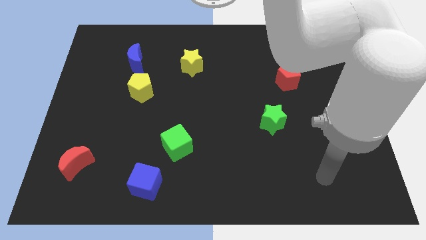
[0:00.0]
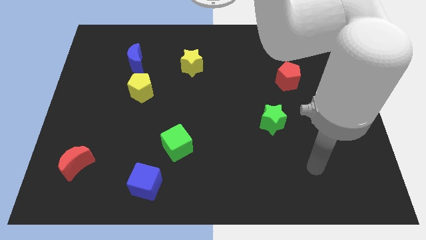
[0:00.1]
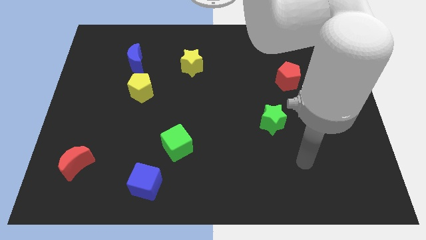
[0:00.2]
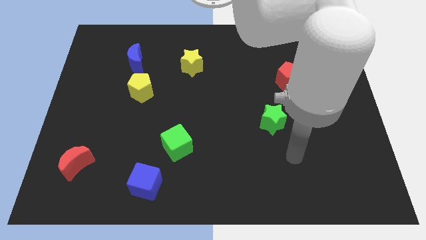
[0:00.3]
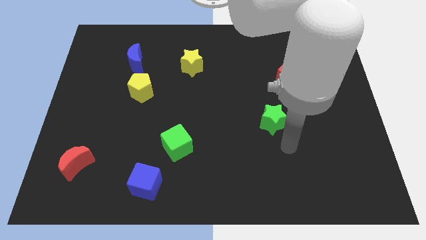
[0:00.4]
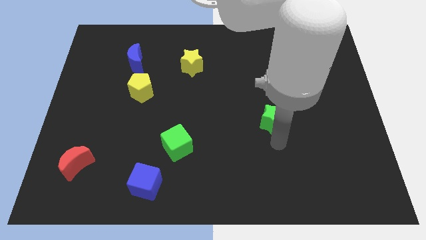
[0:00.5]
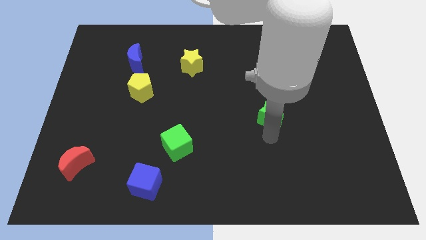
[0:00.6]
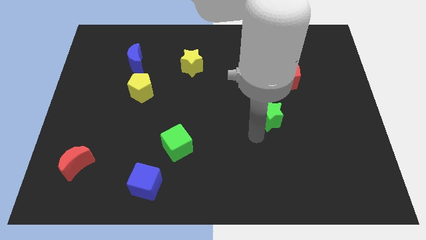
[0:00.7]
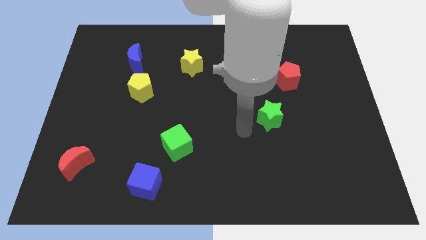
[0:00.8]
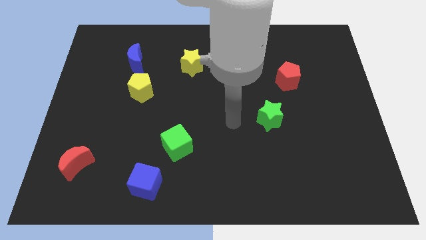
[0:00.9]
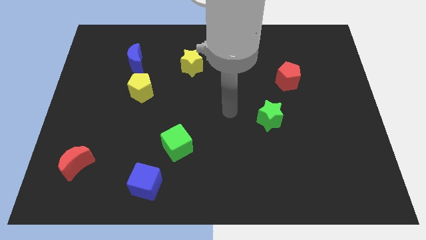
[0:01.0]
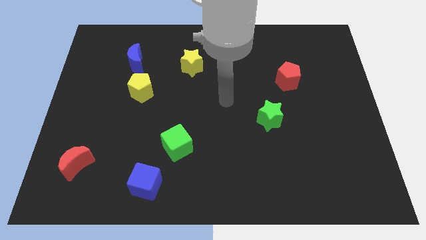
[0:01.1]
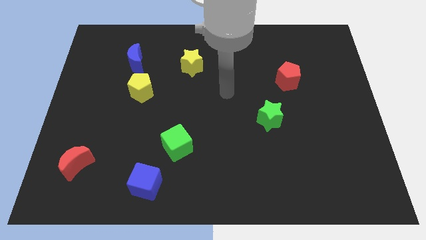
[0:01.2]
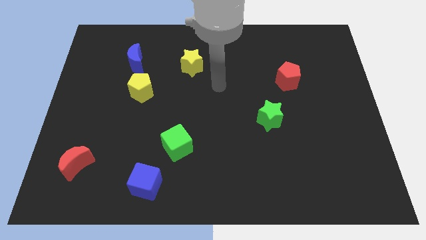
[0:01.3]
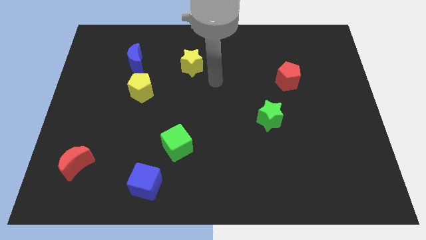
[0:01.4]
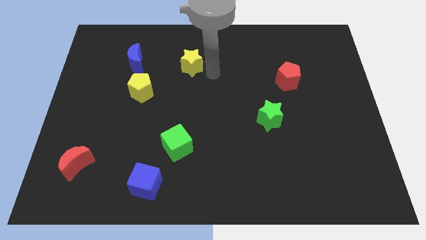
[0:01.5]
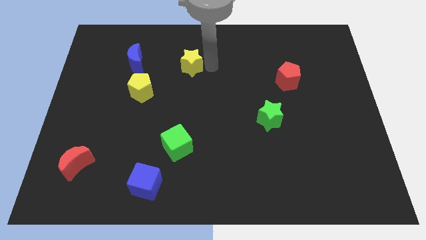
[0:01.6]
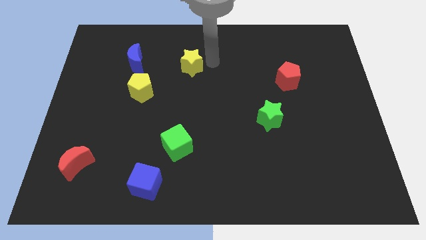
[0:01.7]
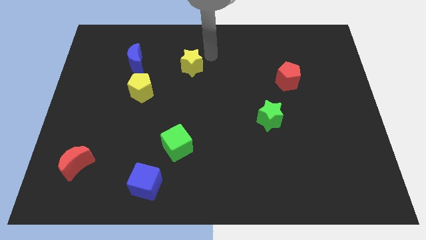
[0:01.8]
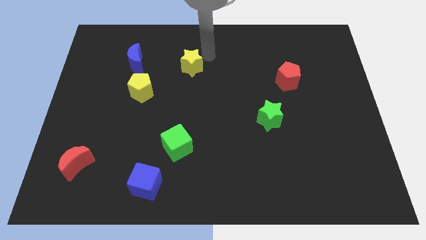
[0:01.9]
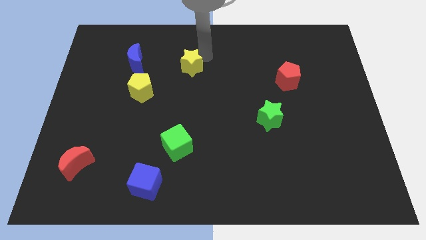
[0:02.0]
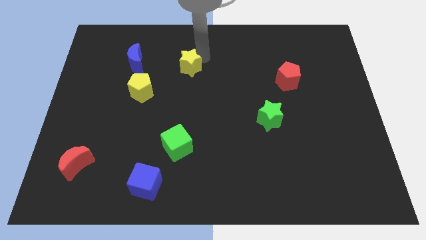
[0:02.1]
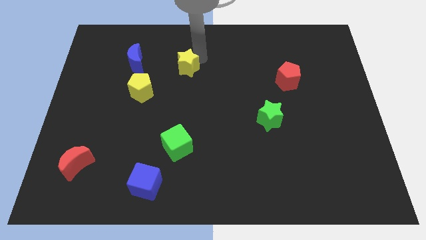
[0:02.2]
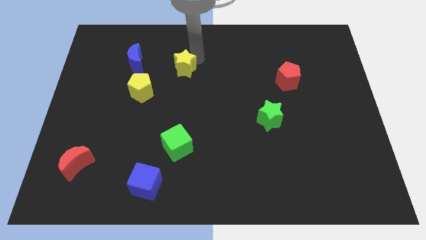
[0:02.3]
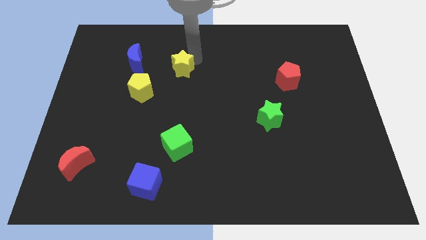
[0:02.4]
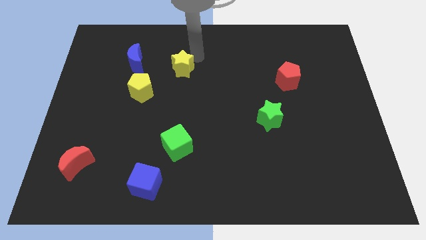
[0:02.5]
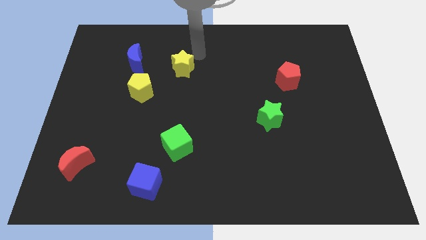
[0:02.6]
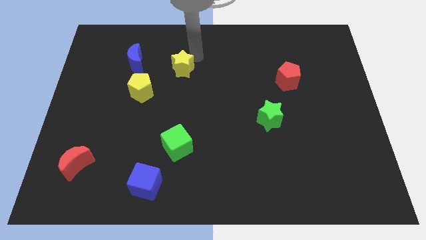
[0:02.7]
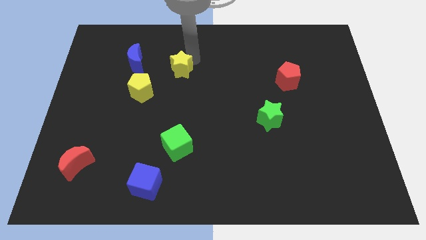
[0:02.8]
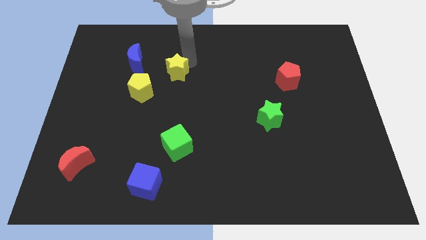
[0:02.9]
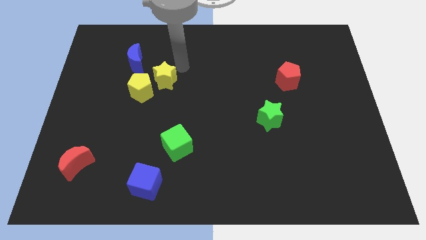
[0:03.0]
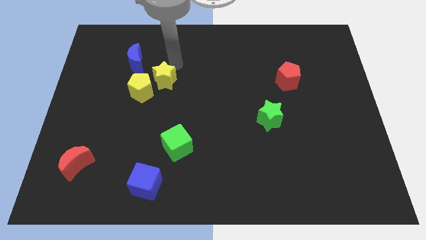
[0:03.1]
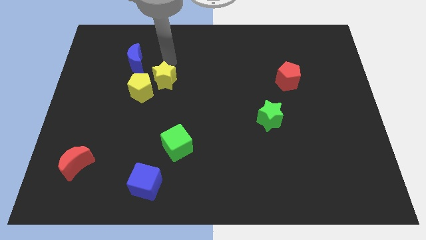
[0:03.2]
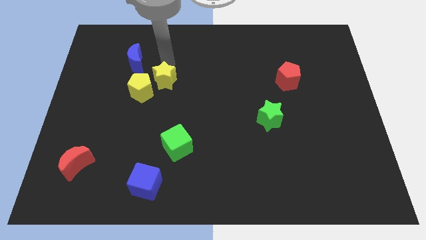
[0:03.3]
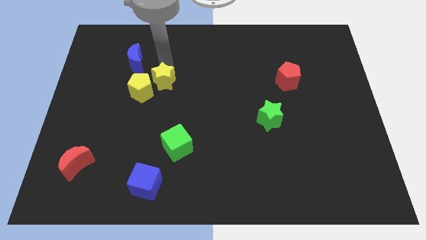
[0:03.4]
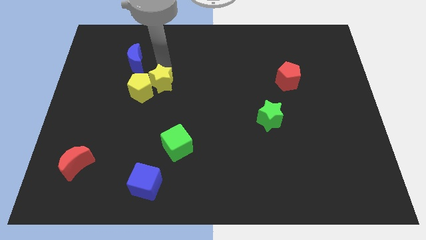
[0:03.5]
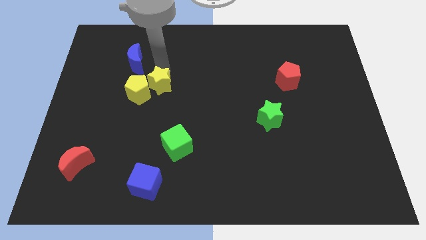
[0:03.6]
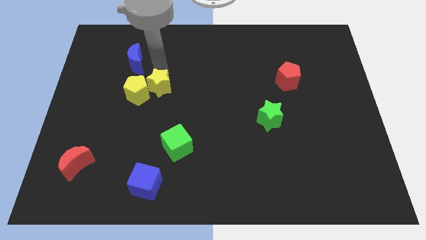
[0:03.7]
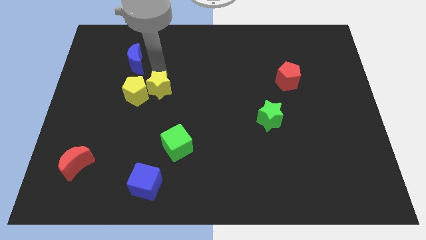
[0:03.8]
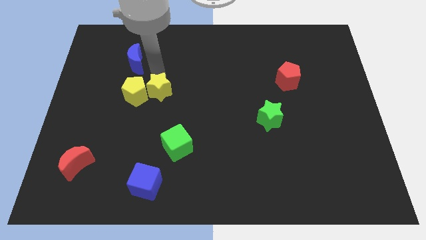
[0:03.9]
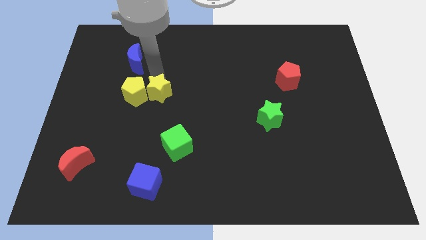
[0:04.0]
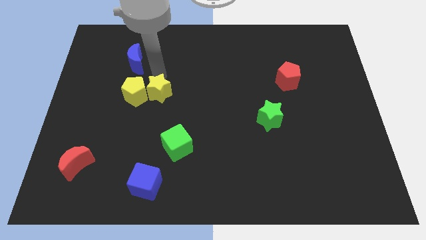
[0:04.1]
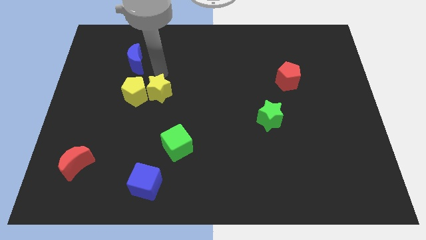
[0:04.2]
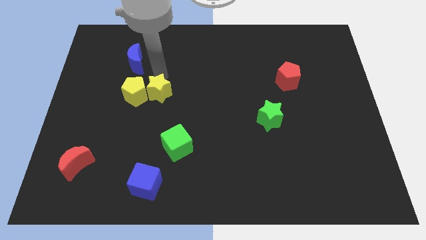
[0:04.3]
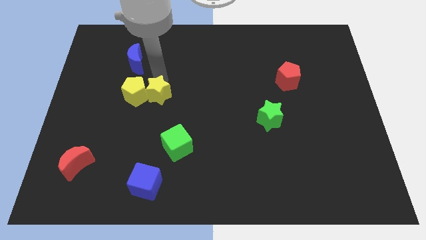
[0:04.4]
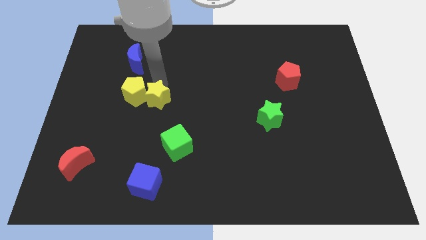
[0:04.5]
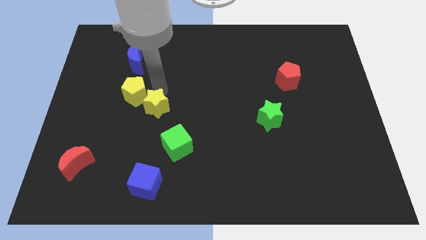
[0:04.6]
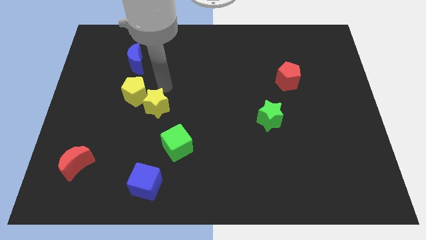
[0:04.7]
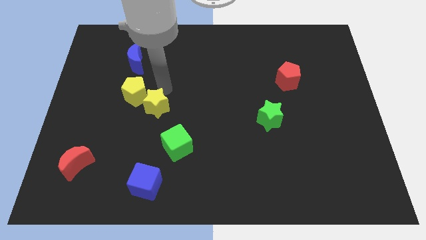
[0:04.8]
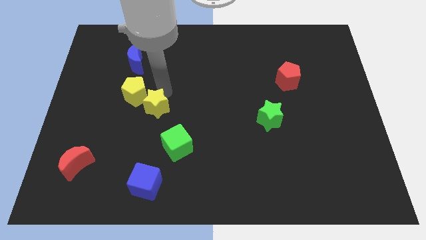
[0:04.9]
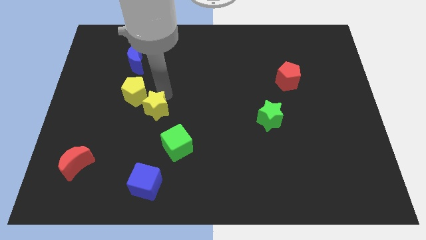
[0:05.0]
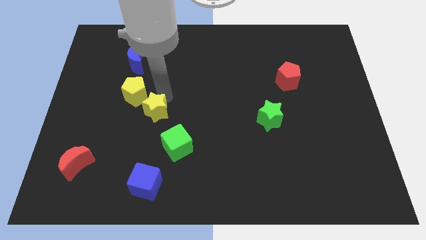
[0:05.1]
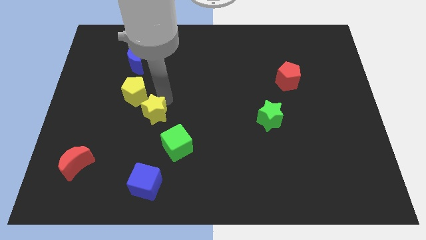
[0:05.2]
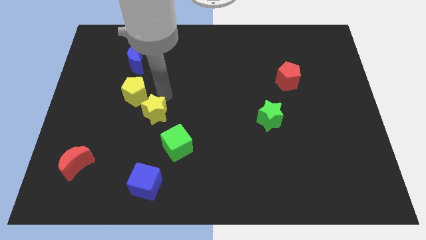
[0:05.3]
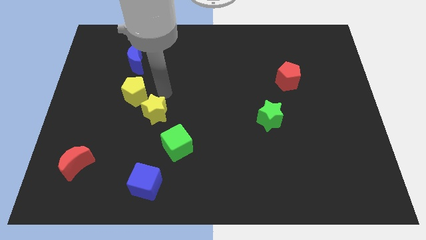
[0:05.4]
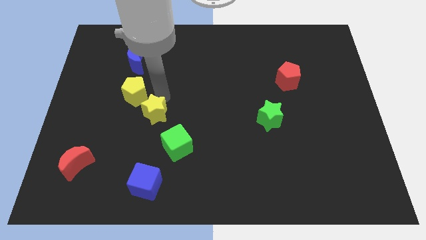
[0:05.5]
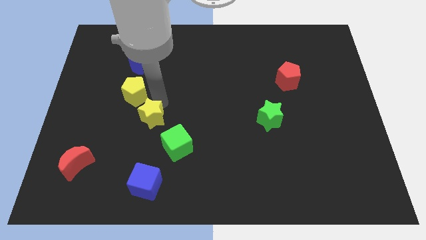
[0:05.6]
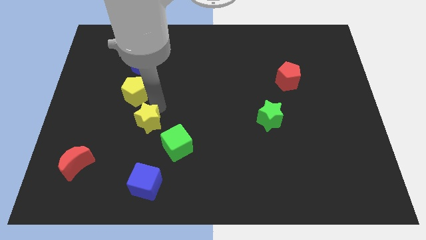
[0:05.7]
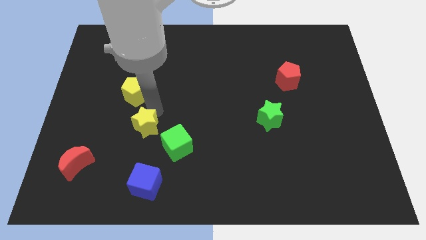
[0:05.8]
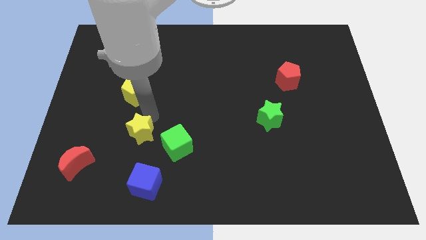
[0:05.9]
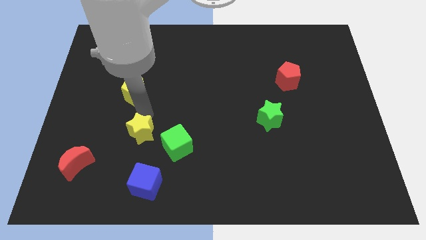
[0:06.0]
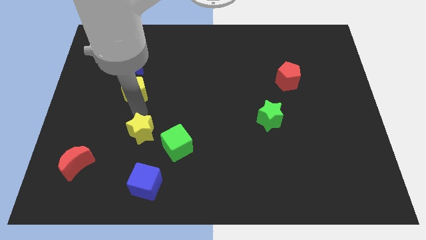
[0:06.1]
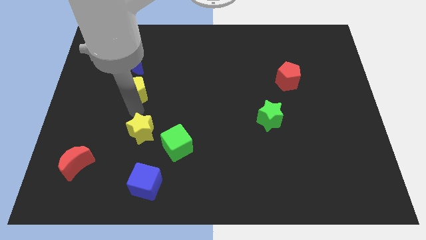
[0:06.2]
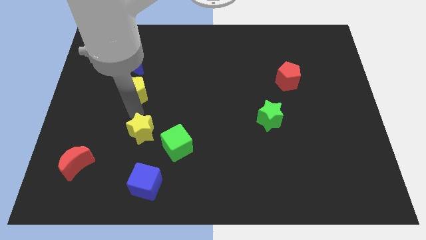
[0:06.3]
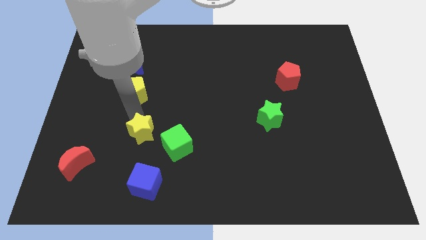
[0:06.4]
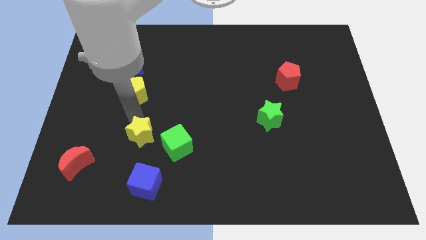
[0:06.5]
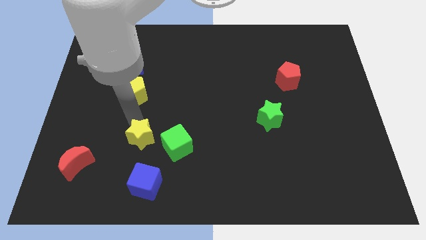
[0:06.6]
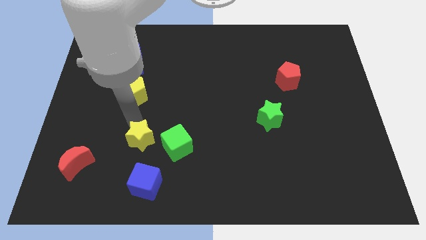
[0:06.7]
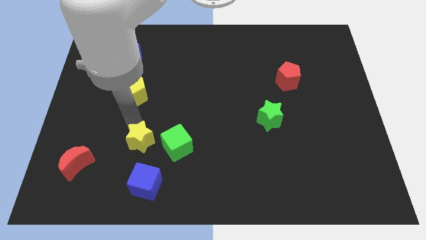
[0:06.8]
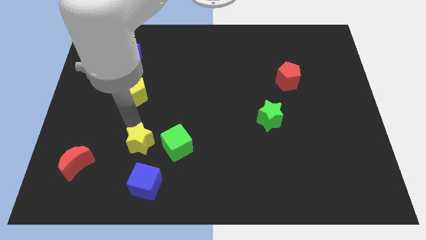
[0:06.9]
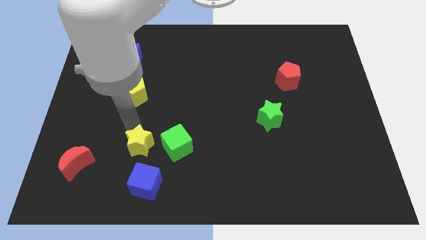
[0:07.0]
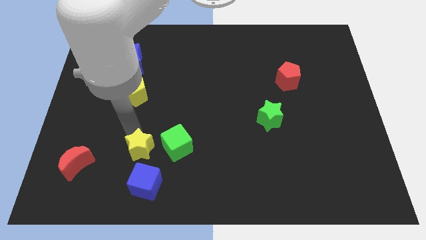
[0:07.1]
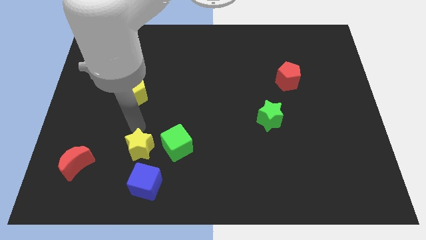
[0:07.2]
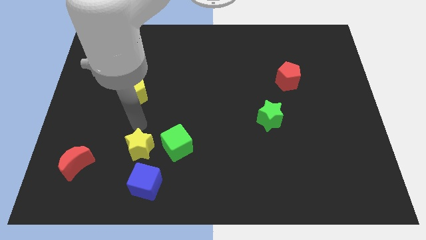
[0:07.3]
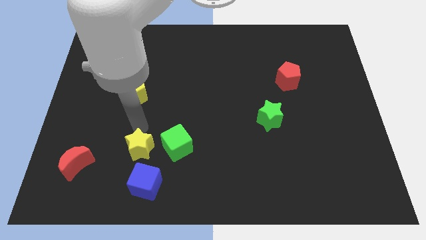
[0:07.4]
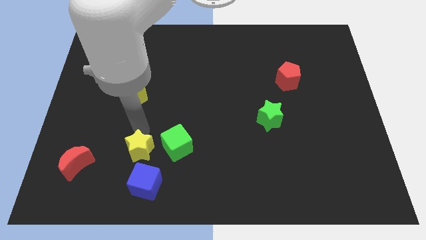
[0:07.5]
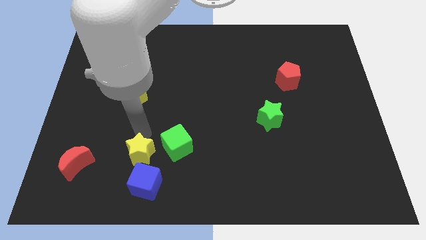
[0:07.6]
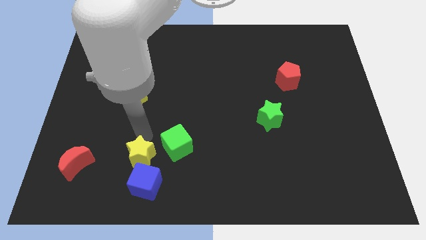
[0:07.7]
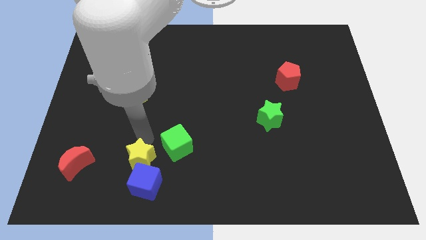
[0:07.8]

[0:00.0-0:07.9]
put the yellow star next to the blue cube
